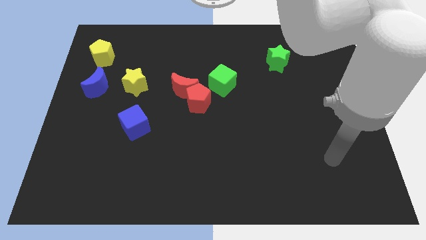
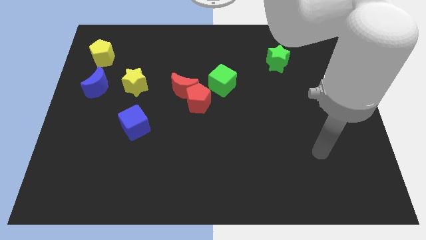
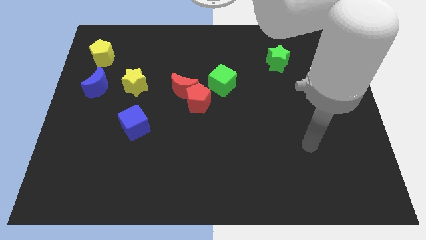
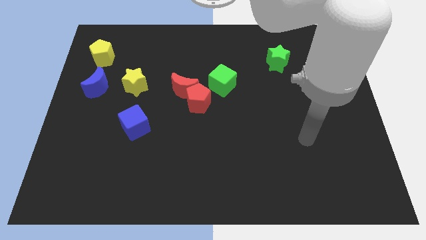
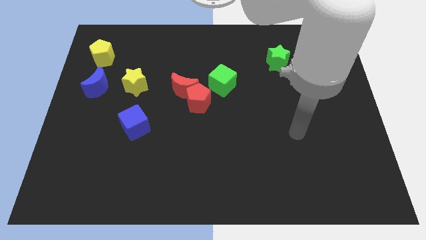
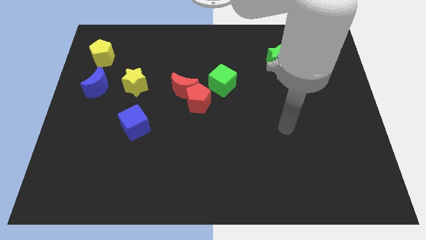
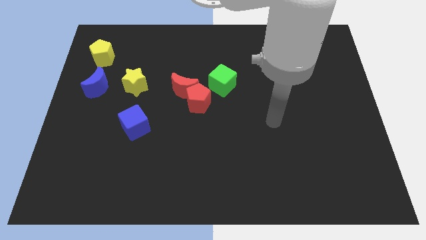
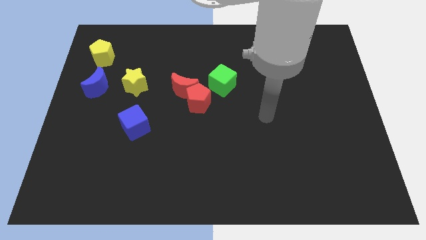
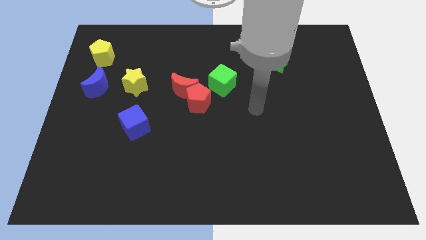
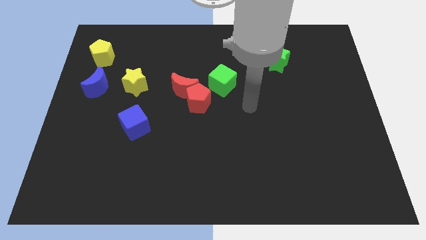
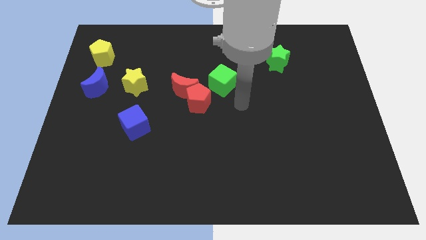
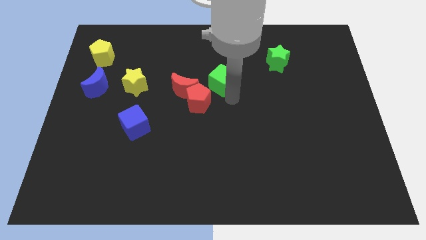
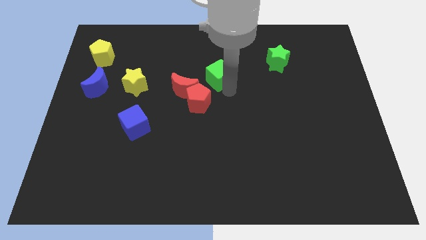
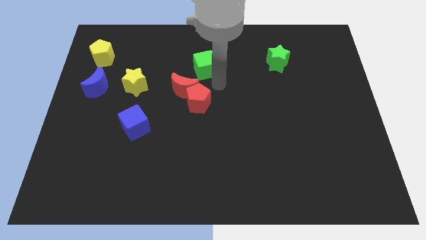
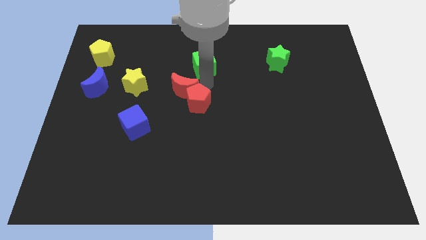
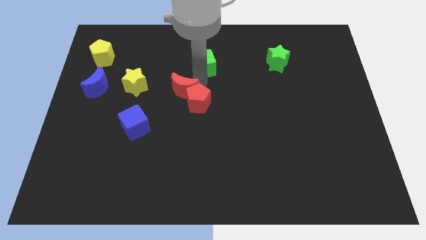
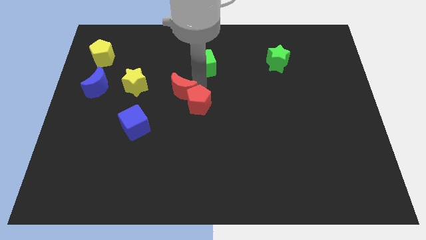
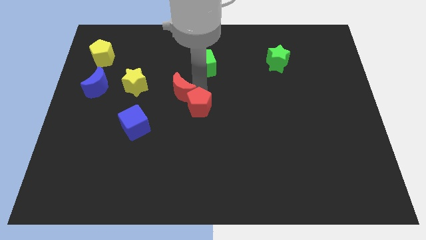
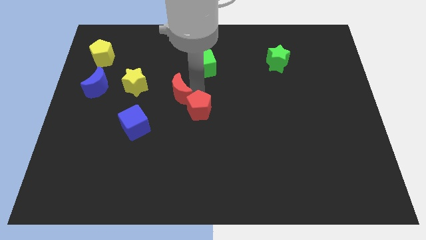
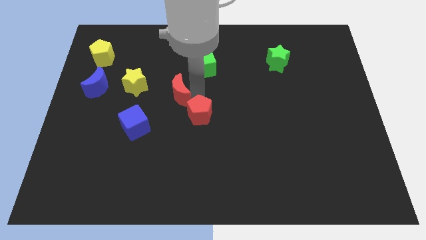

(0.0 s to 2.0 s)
separate the red pentagon from the red moon and green cube

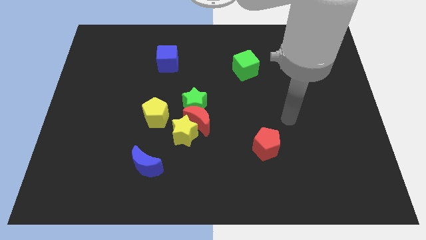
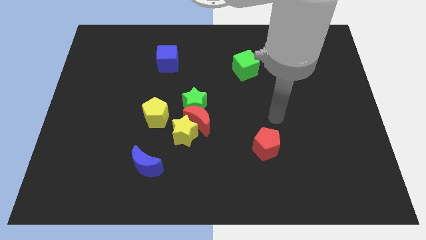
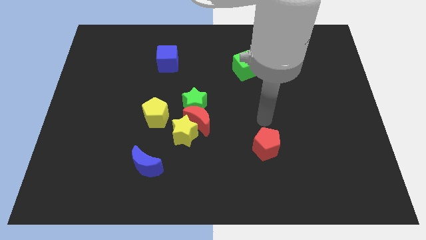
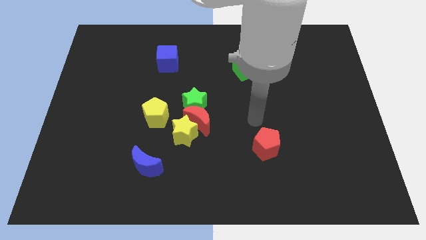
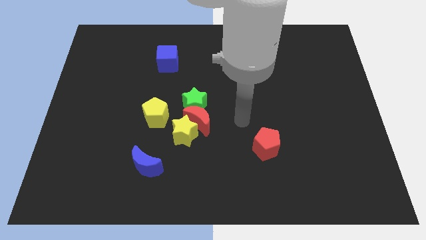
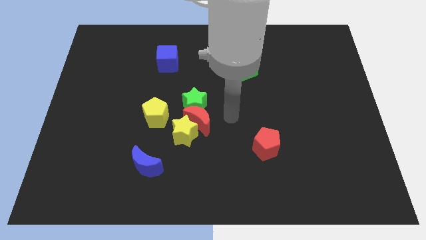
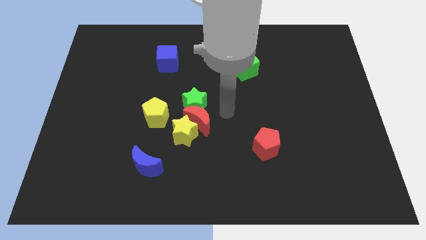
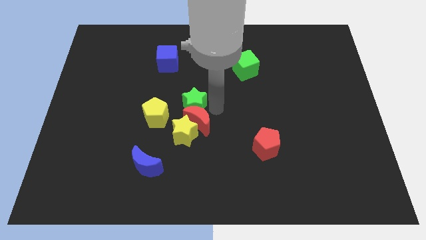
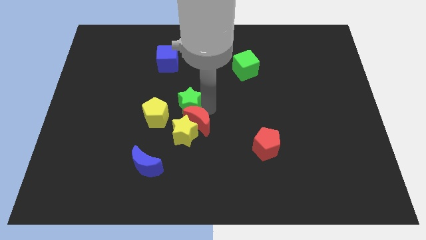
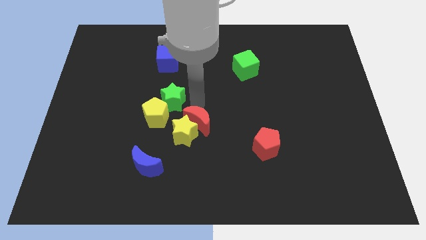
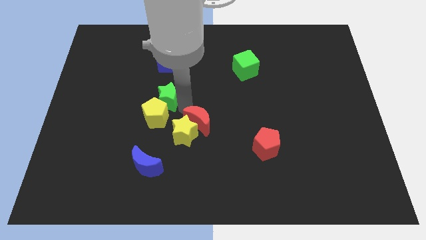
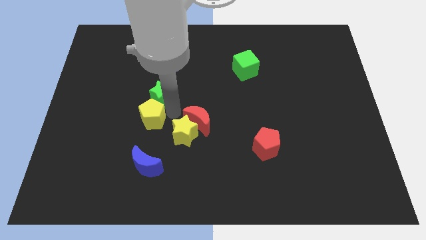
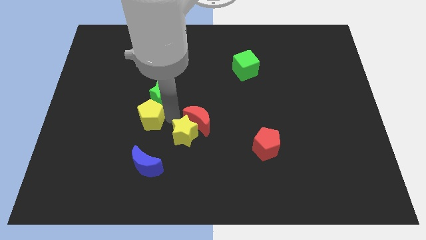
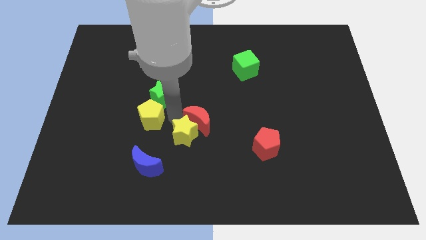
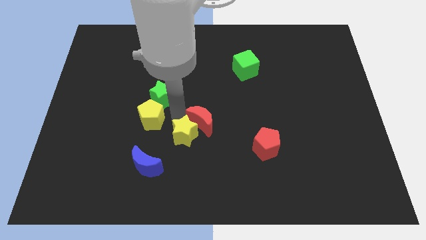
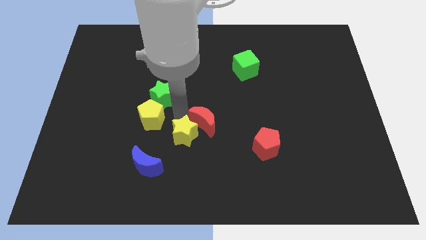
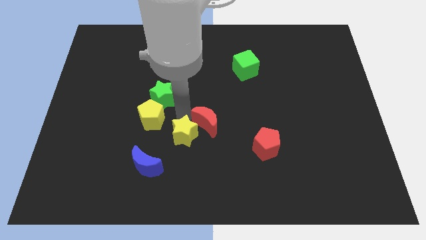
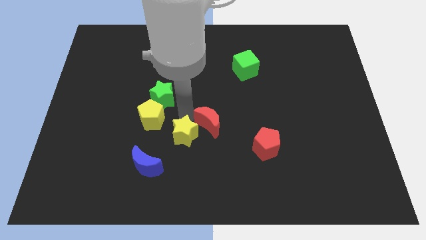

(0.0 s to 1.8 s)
move the red moon away from the group

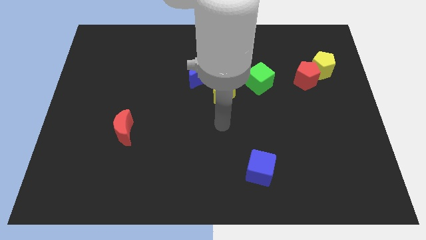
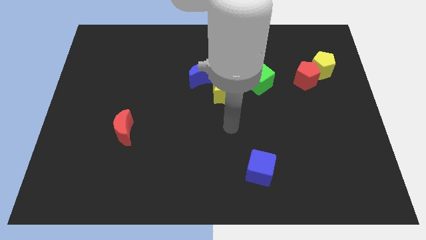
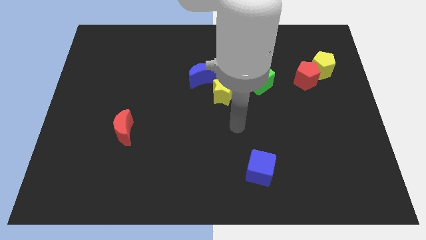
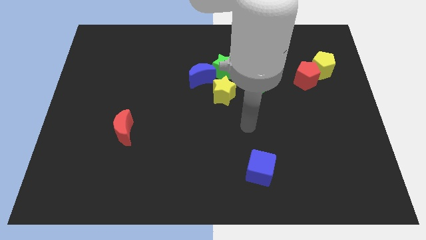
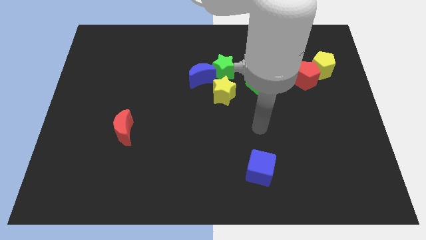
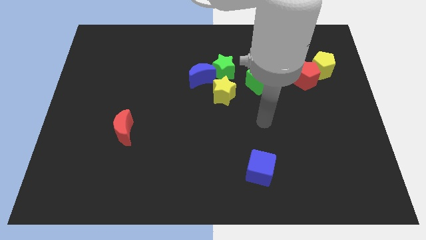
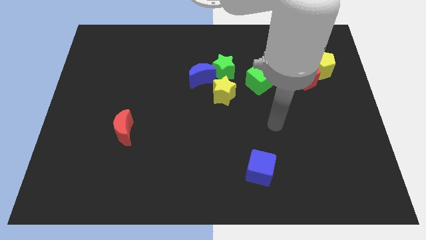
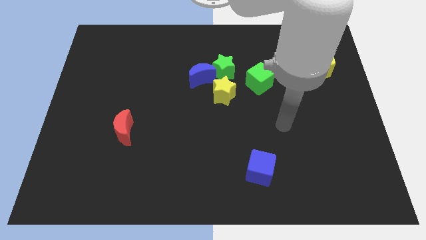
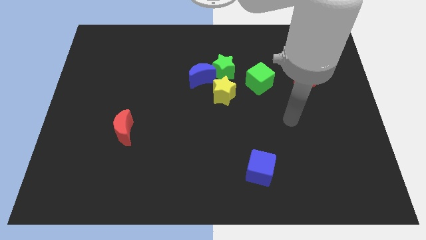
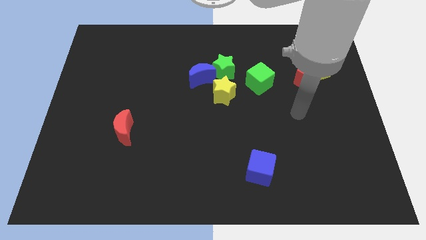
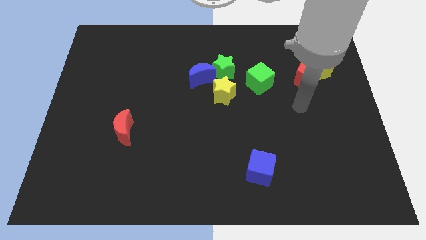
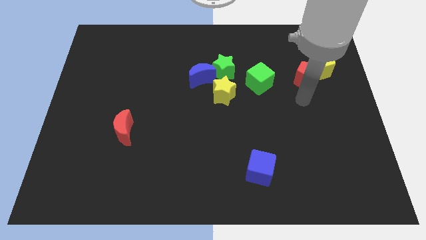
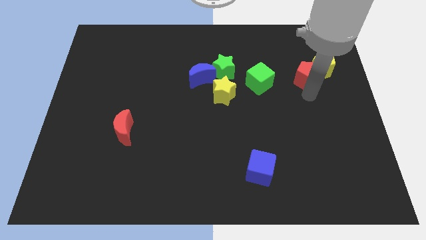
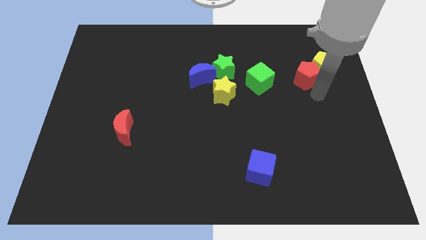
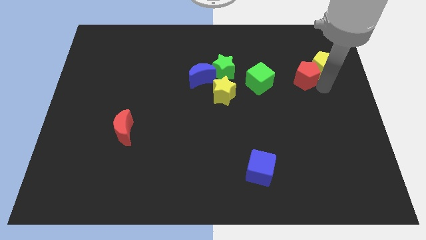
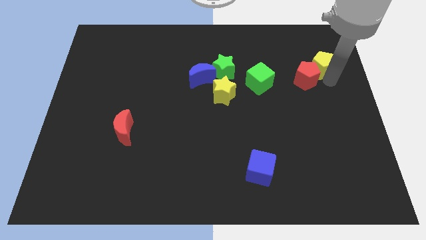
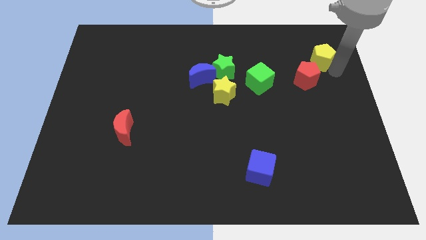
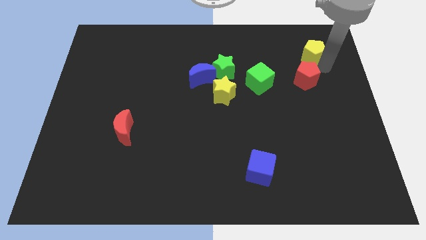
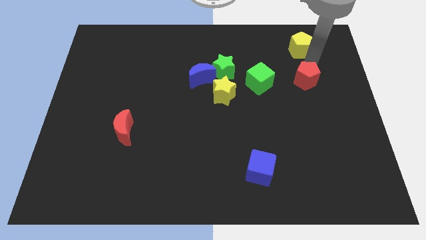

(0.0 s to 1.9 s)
pull the red pentagon apart from the yellow pentagon

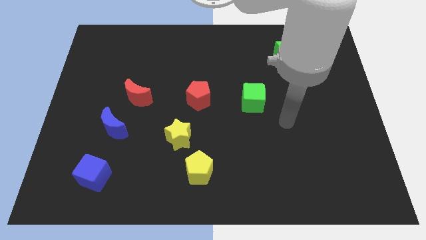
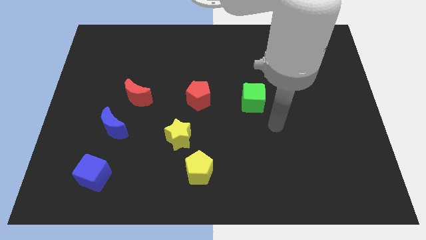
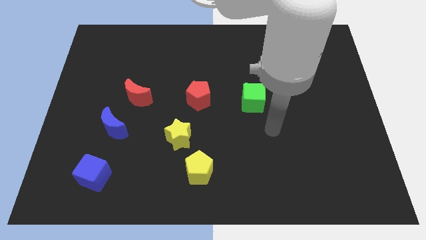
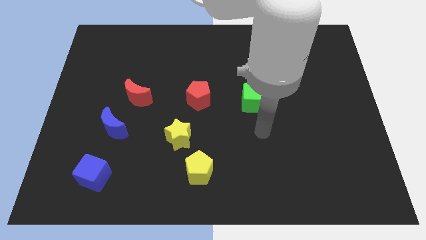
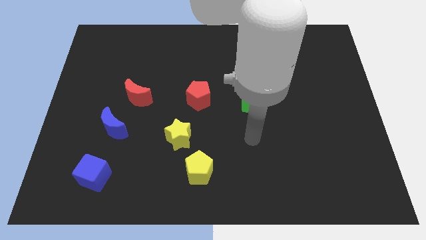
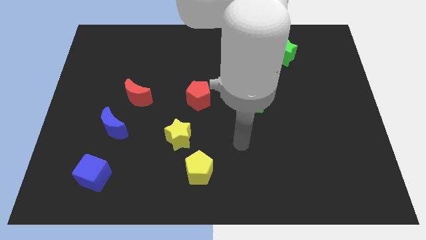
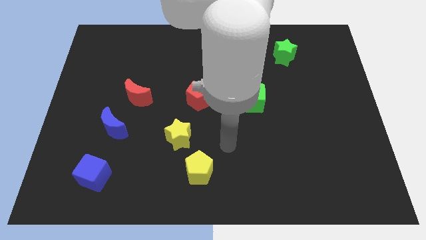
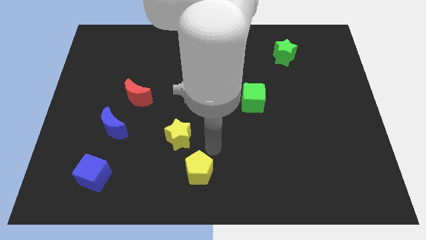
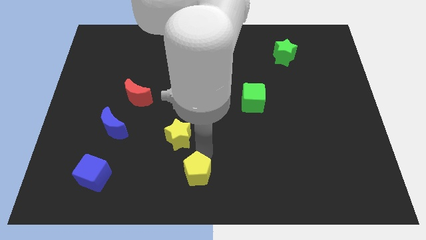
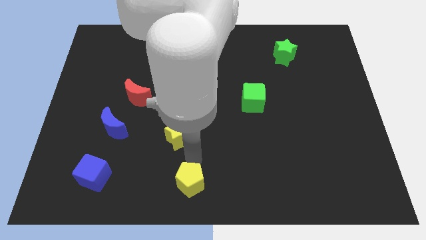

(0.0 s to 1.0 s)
move the yellow star away from the yellow pentagon

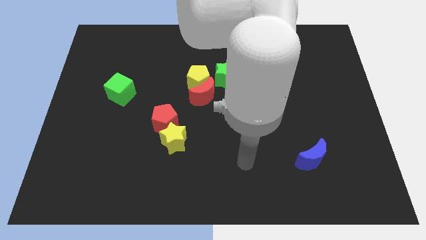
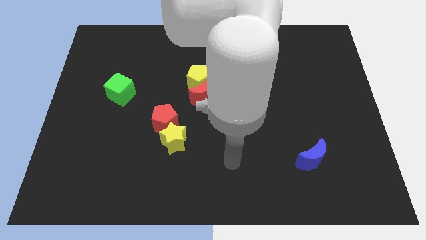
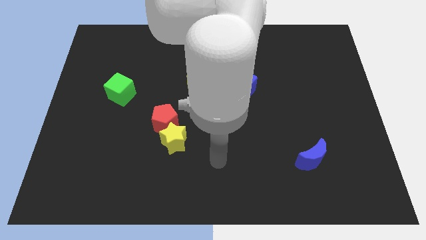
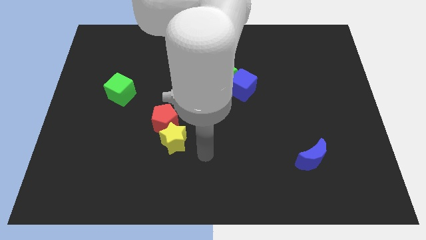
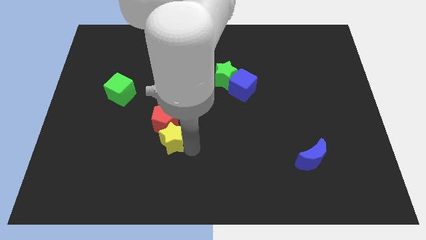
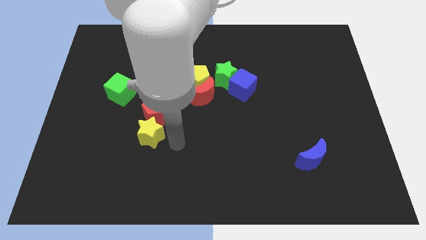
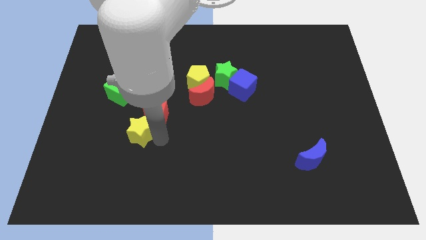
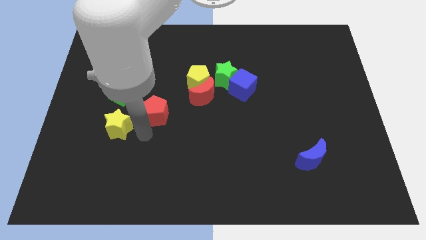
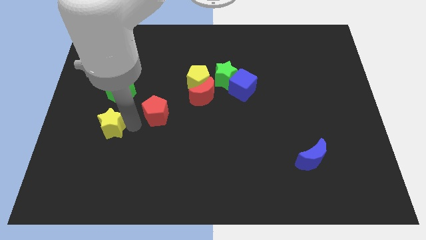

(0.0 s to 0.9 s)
separate the red pentagon from the yellow star

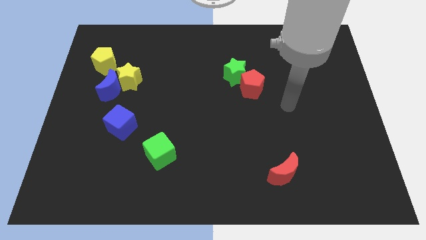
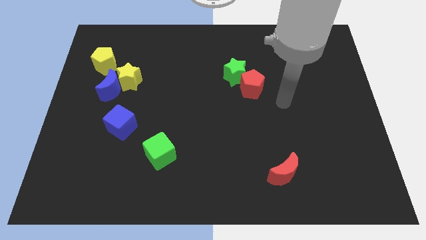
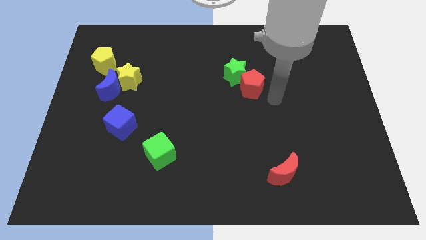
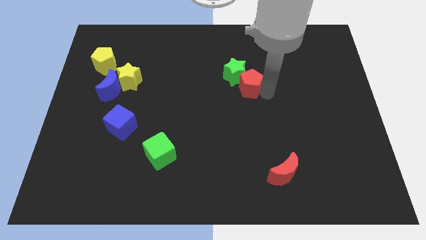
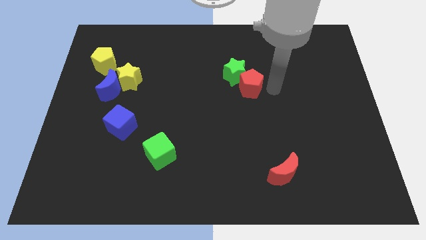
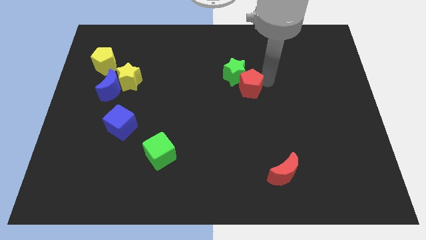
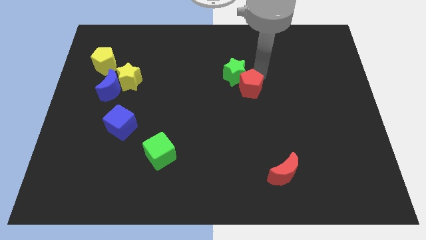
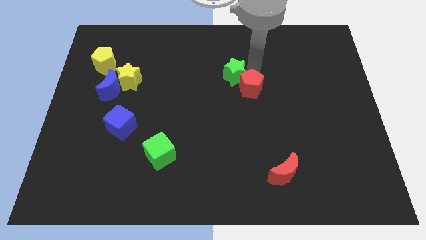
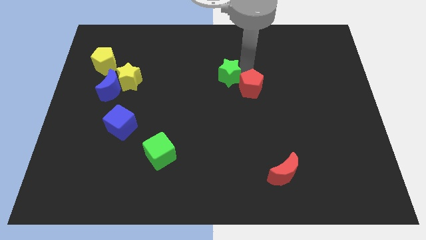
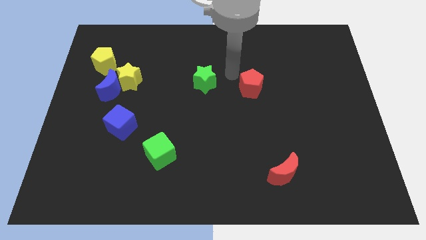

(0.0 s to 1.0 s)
pull the red pentagon apart from the green star

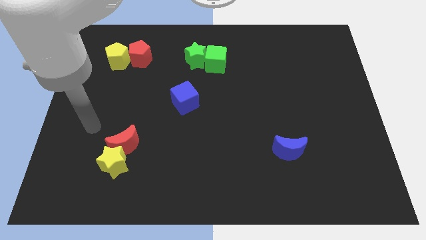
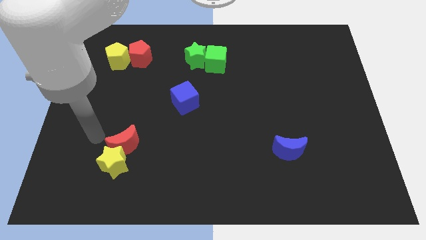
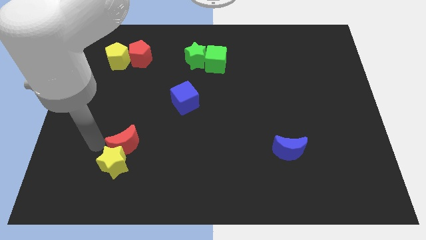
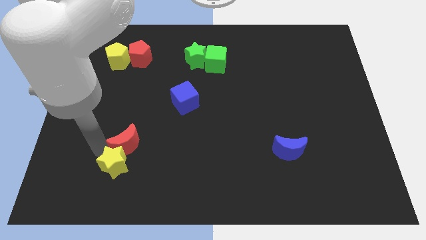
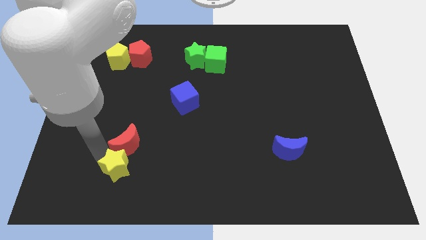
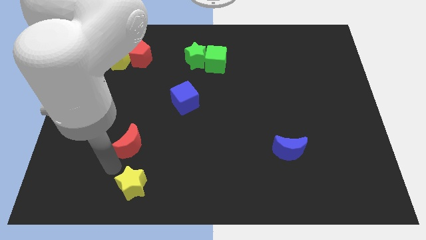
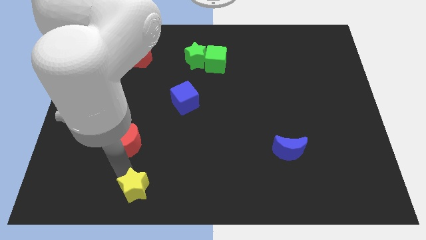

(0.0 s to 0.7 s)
move the red moon away from the yellow star
